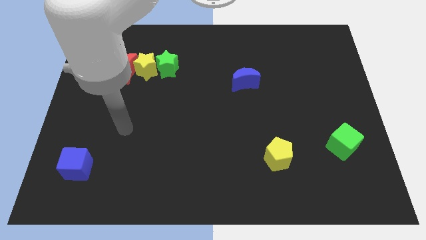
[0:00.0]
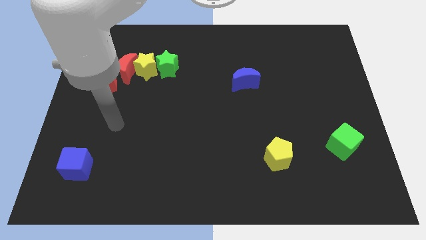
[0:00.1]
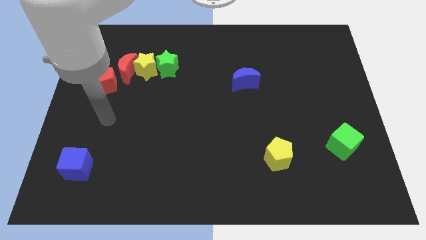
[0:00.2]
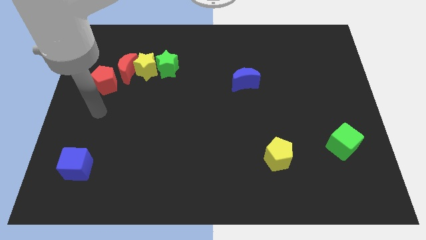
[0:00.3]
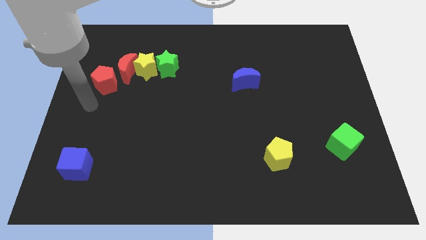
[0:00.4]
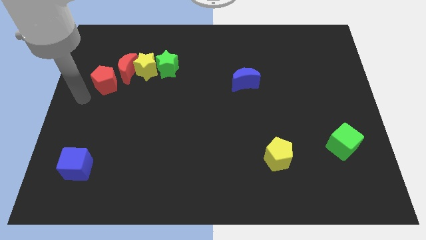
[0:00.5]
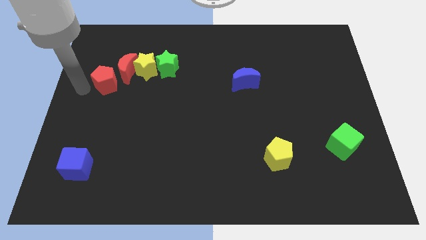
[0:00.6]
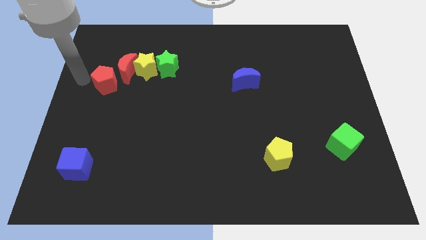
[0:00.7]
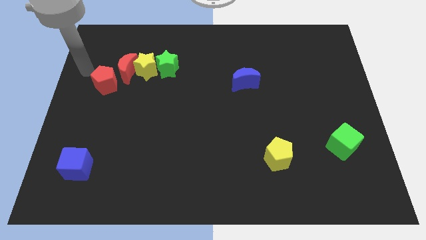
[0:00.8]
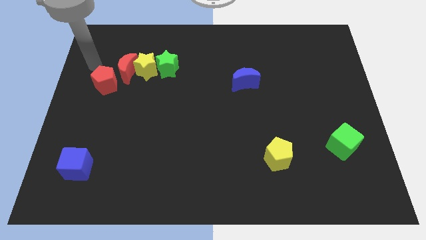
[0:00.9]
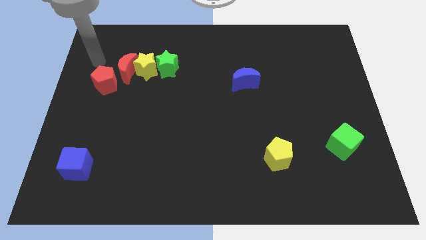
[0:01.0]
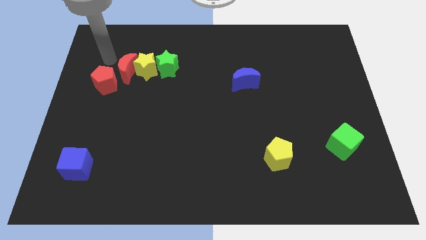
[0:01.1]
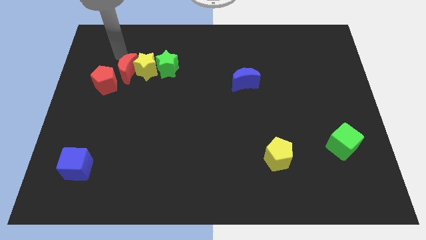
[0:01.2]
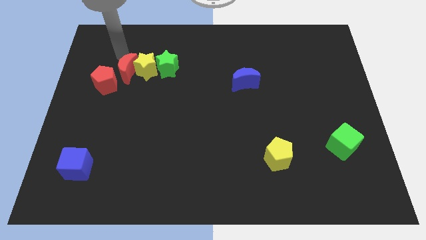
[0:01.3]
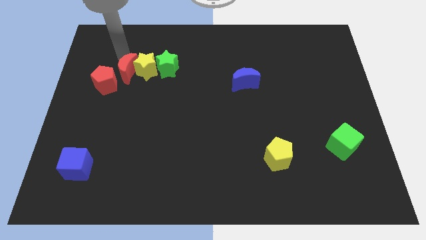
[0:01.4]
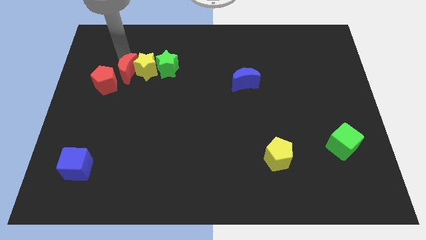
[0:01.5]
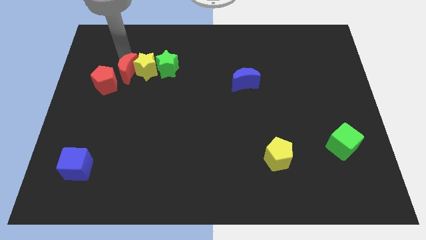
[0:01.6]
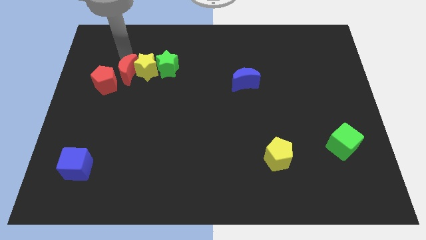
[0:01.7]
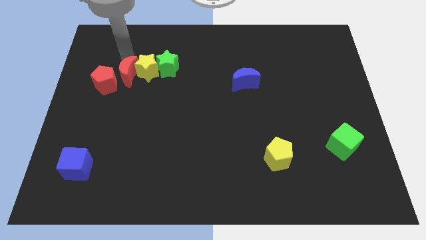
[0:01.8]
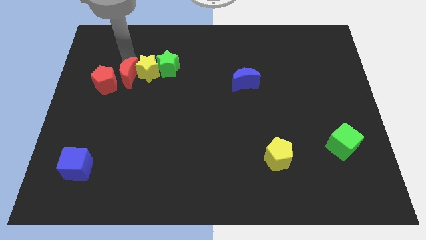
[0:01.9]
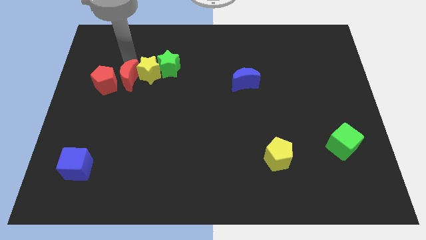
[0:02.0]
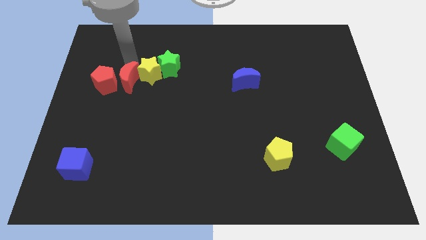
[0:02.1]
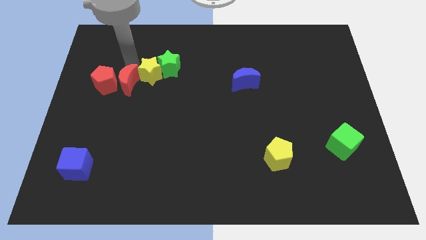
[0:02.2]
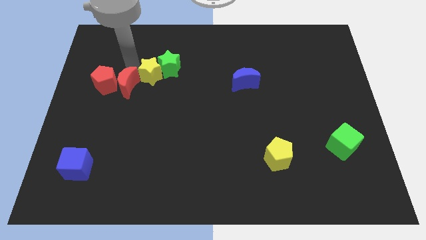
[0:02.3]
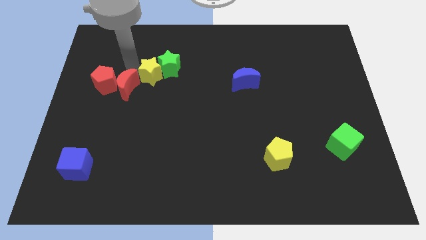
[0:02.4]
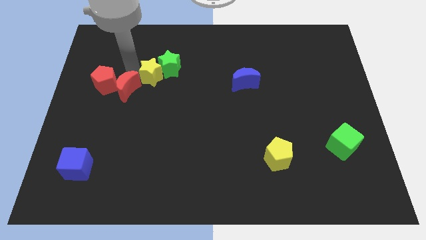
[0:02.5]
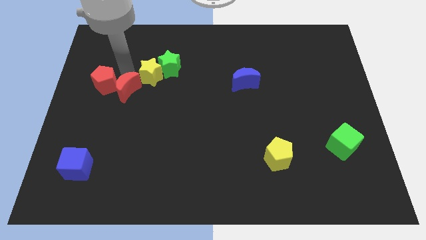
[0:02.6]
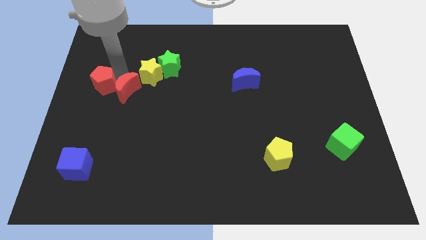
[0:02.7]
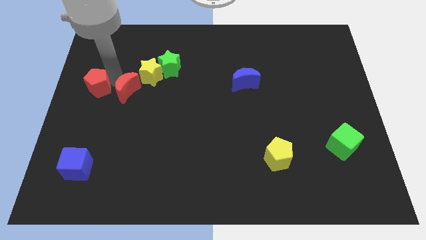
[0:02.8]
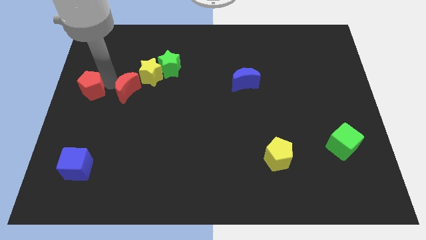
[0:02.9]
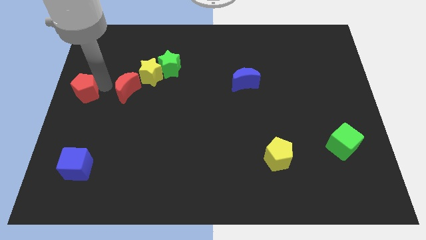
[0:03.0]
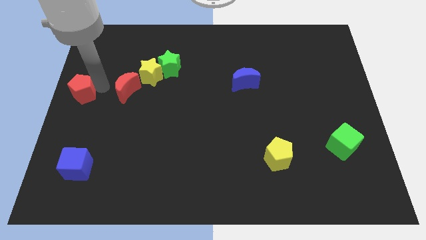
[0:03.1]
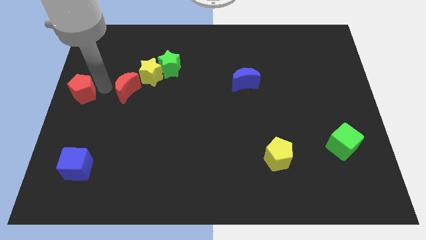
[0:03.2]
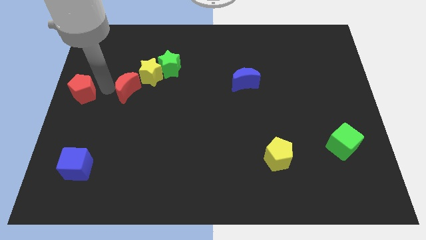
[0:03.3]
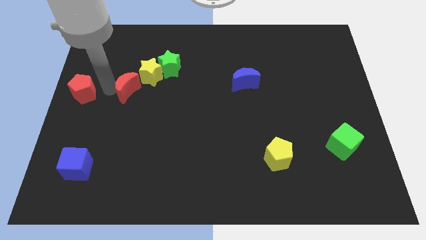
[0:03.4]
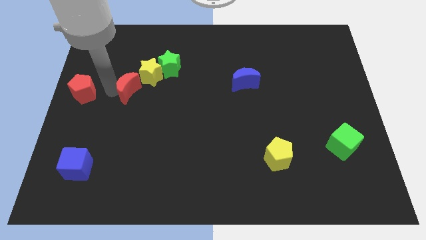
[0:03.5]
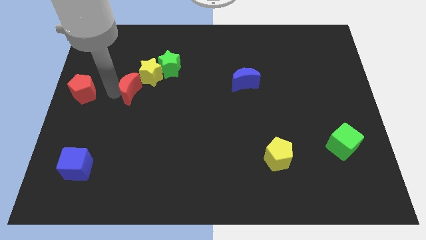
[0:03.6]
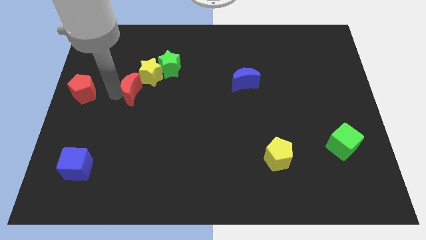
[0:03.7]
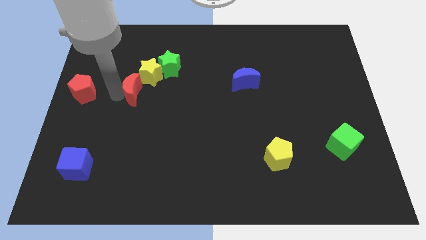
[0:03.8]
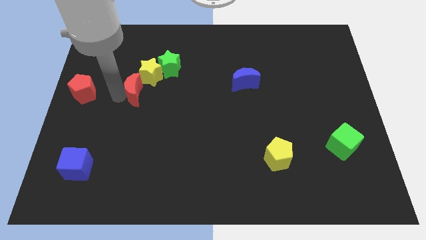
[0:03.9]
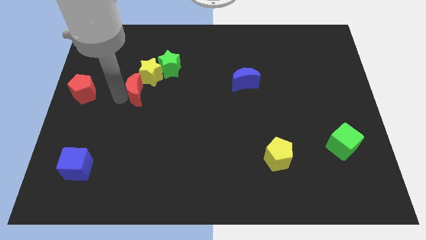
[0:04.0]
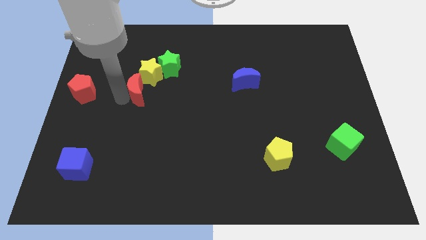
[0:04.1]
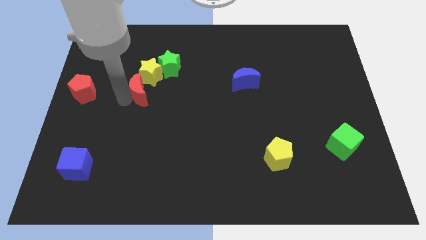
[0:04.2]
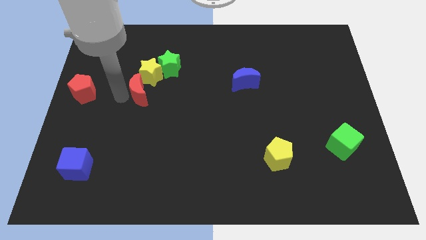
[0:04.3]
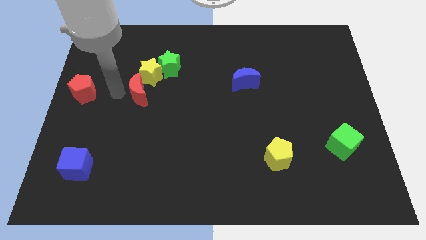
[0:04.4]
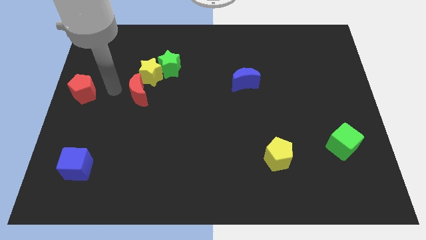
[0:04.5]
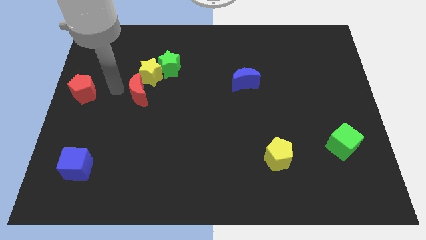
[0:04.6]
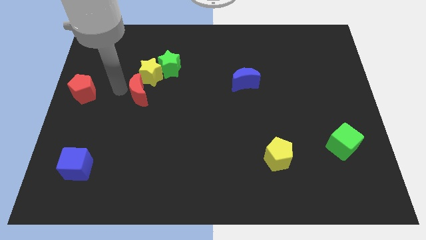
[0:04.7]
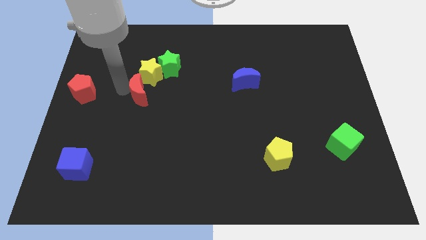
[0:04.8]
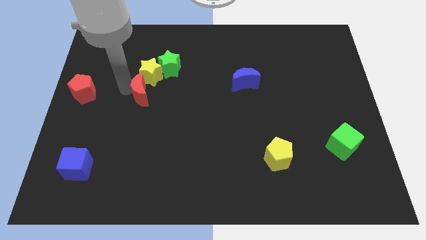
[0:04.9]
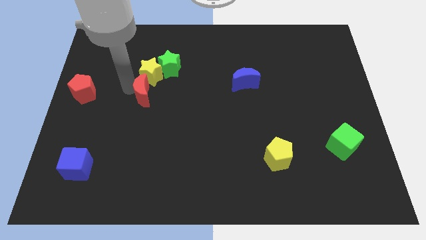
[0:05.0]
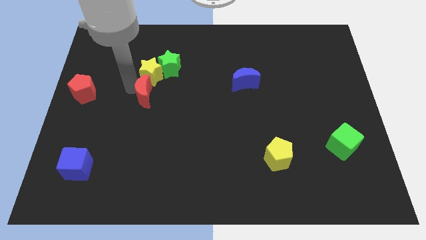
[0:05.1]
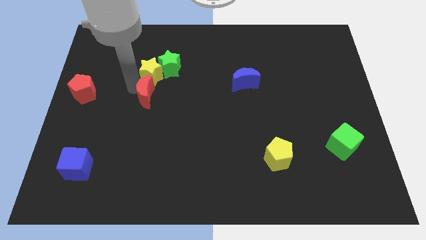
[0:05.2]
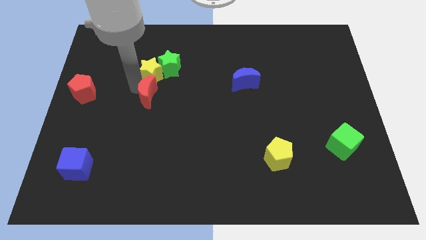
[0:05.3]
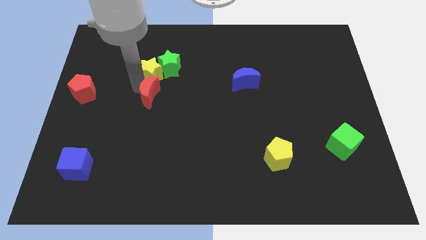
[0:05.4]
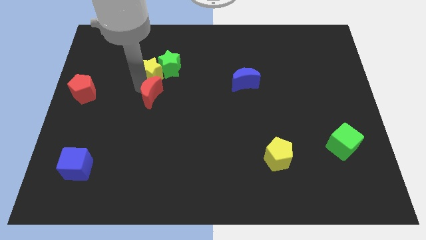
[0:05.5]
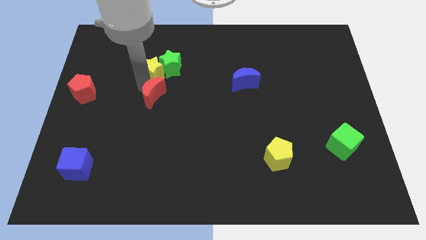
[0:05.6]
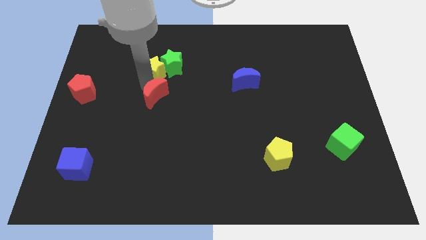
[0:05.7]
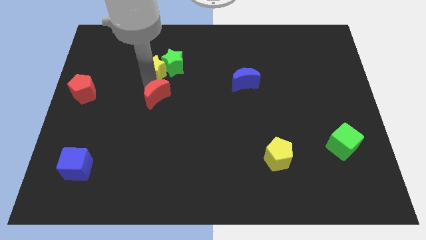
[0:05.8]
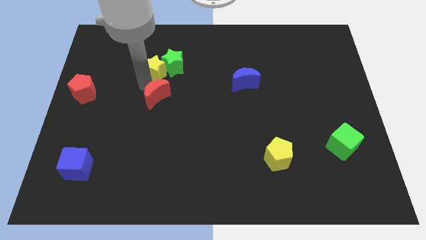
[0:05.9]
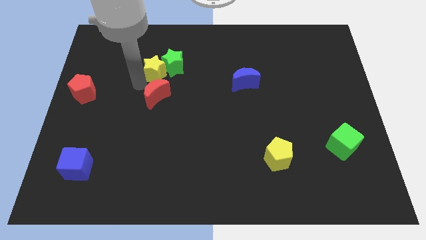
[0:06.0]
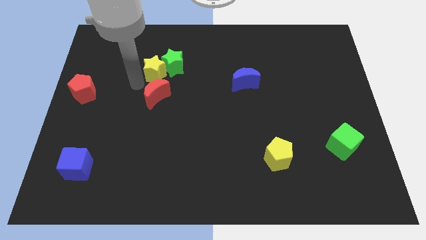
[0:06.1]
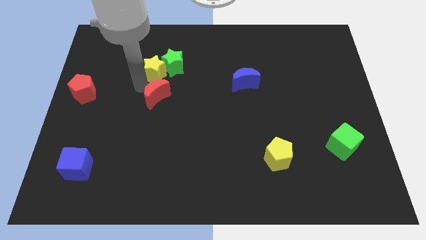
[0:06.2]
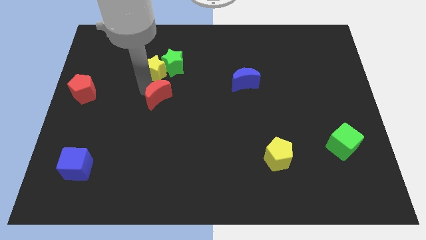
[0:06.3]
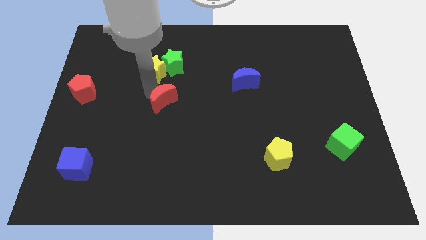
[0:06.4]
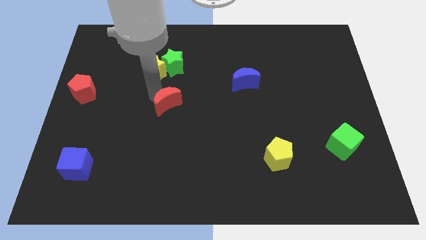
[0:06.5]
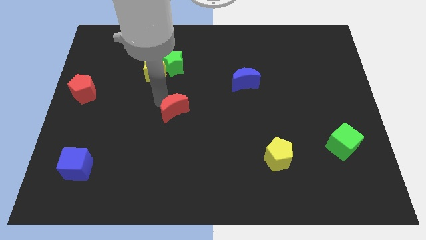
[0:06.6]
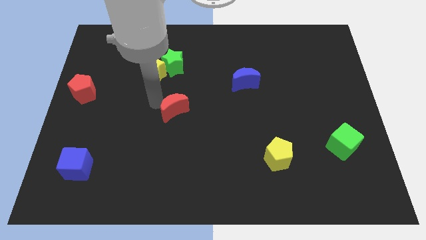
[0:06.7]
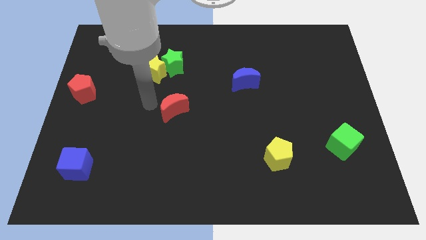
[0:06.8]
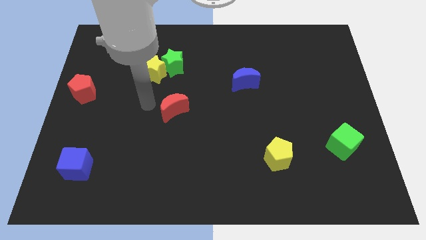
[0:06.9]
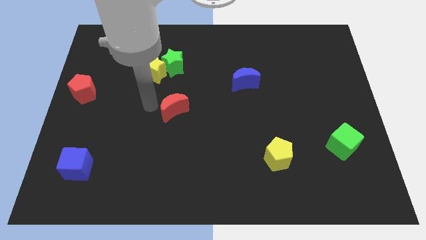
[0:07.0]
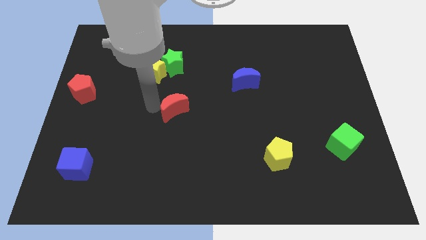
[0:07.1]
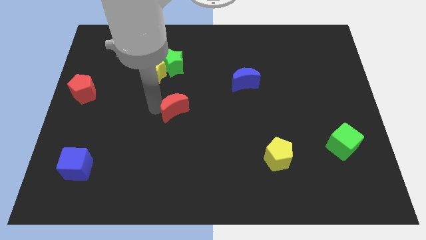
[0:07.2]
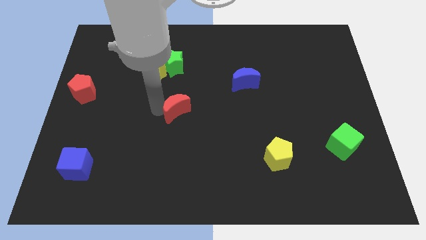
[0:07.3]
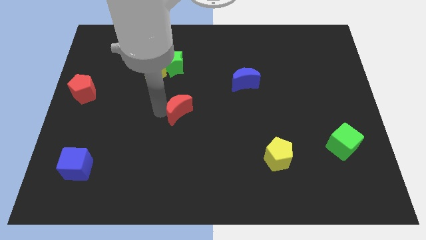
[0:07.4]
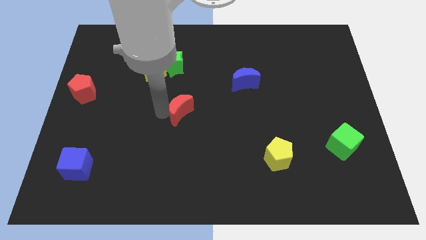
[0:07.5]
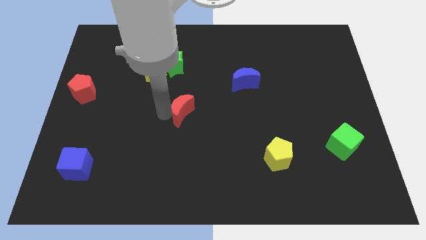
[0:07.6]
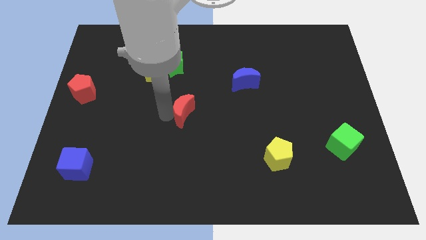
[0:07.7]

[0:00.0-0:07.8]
move the red moon down and then right

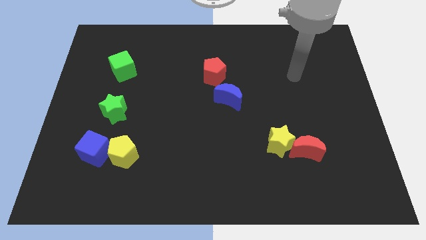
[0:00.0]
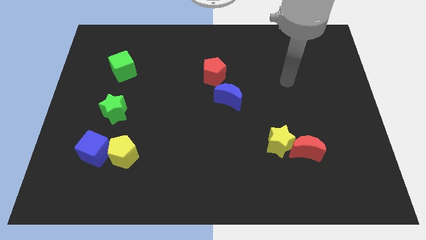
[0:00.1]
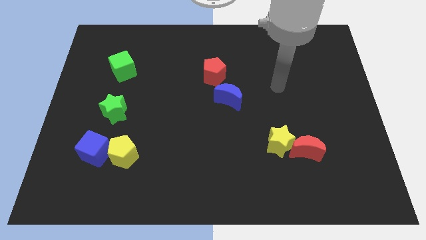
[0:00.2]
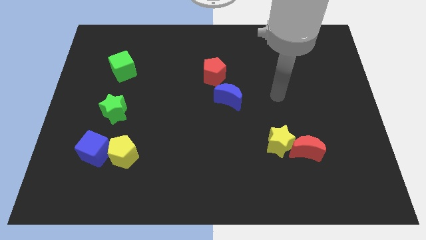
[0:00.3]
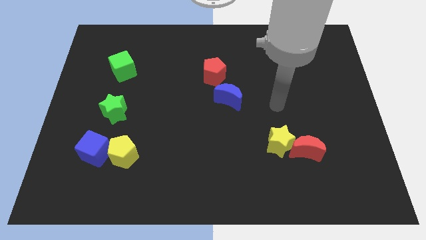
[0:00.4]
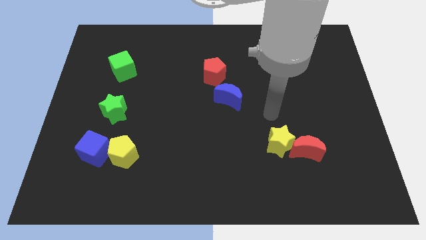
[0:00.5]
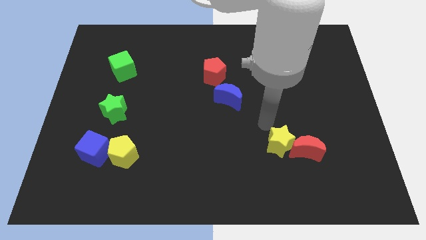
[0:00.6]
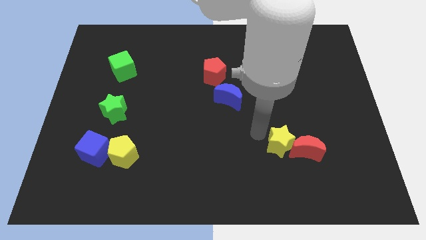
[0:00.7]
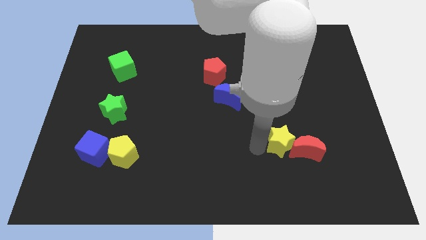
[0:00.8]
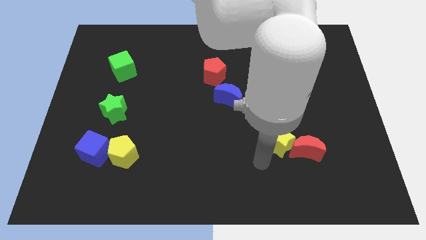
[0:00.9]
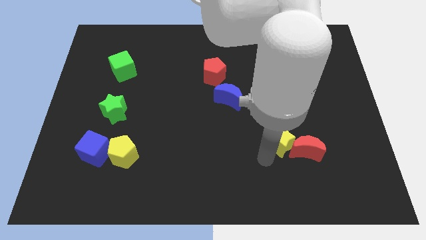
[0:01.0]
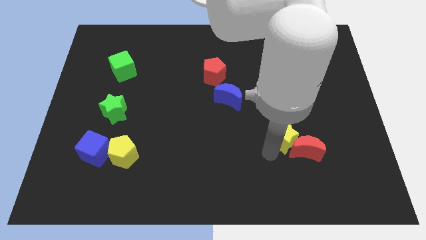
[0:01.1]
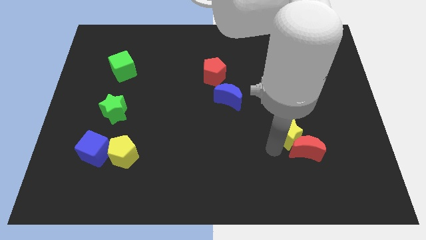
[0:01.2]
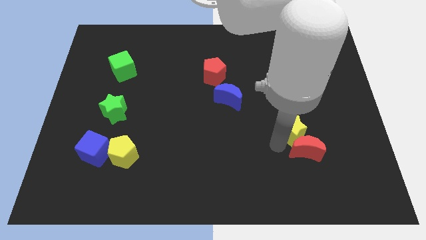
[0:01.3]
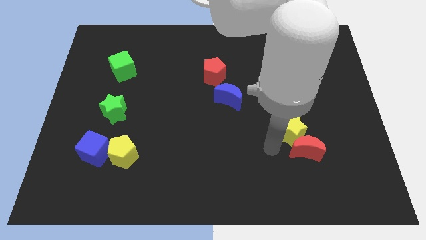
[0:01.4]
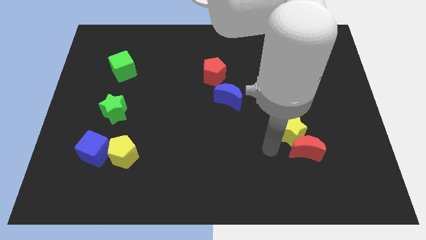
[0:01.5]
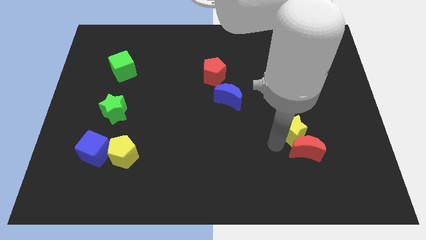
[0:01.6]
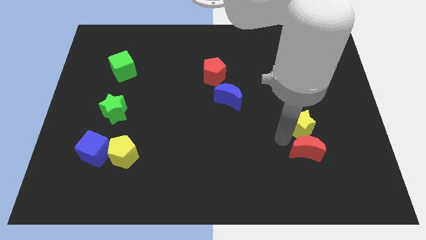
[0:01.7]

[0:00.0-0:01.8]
slide the yellow star a bit up and then to the right
